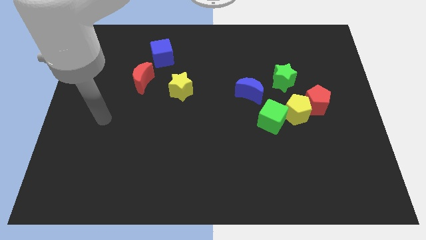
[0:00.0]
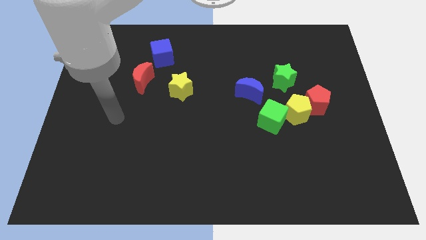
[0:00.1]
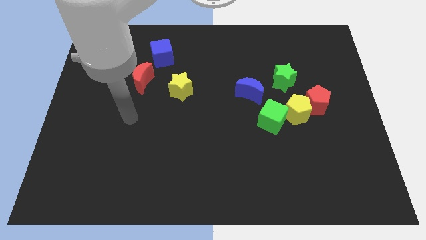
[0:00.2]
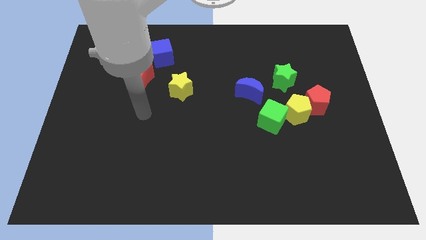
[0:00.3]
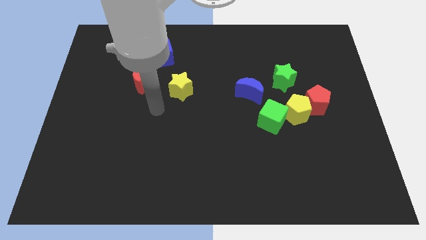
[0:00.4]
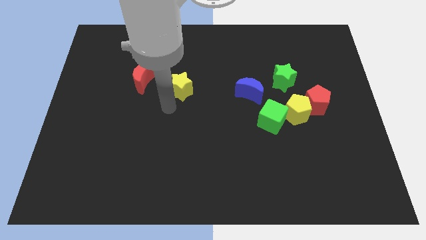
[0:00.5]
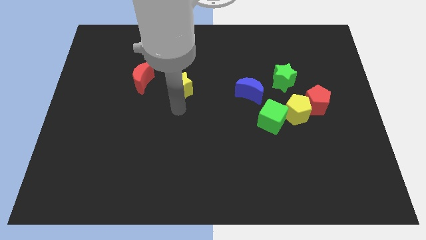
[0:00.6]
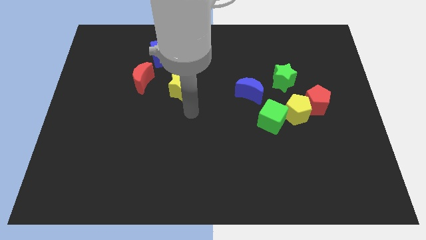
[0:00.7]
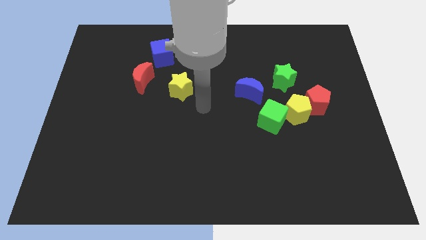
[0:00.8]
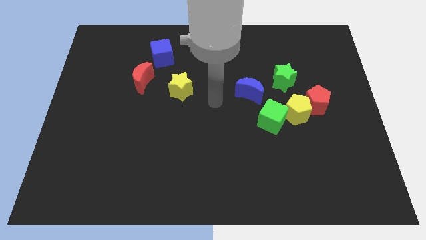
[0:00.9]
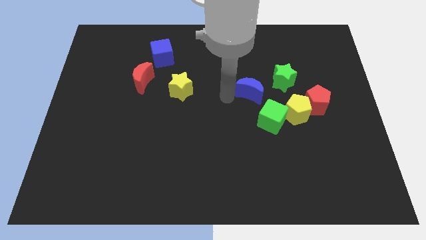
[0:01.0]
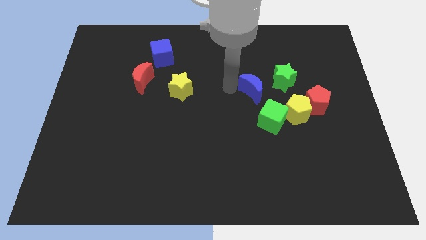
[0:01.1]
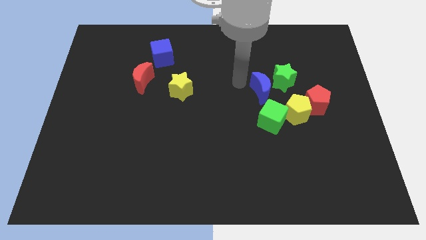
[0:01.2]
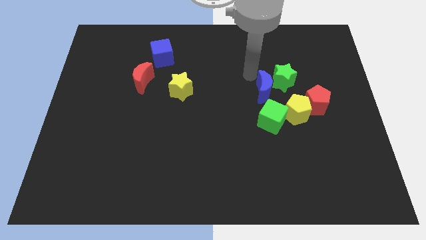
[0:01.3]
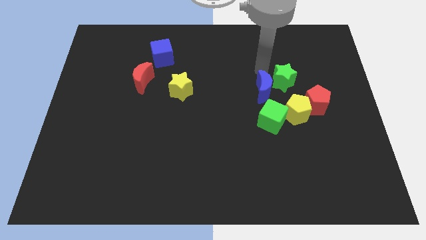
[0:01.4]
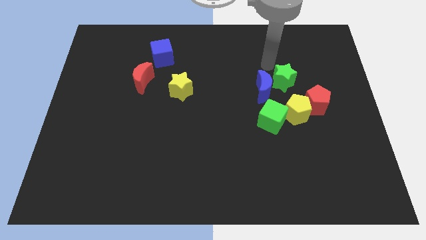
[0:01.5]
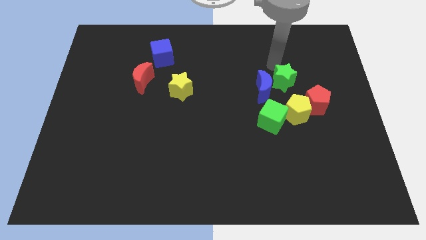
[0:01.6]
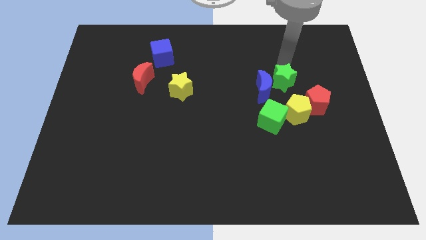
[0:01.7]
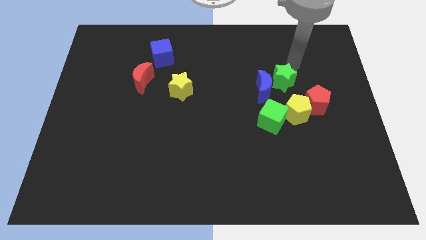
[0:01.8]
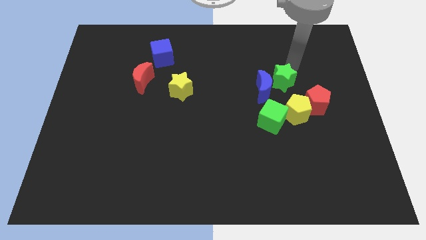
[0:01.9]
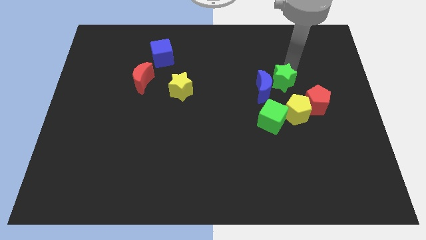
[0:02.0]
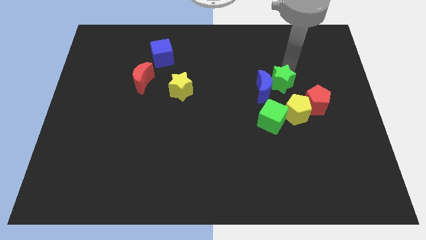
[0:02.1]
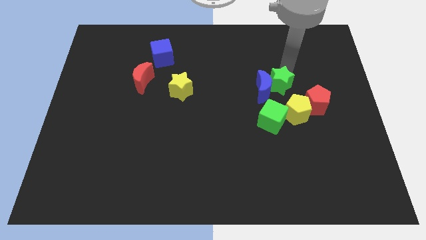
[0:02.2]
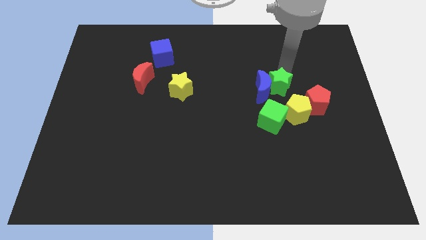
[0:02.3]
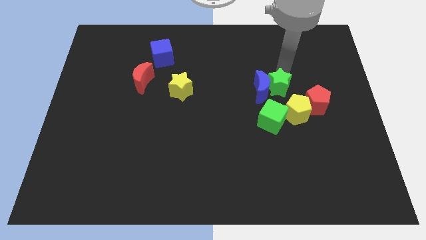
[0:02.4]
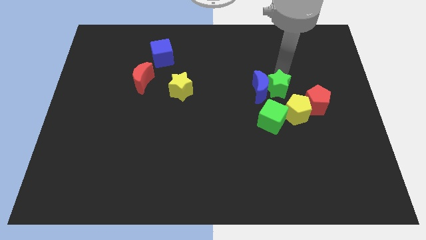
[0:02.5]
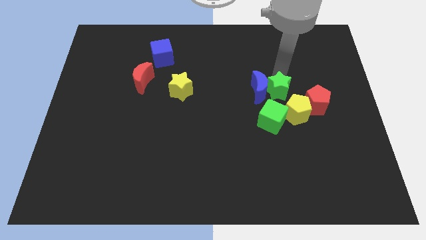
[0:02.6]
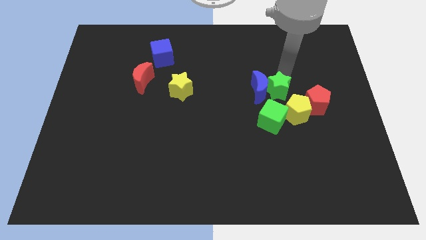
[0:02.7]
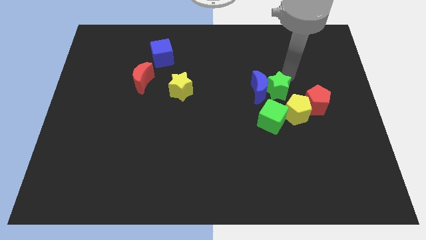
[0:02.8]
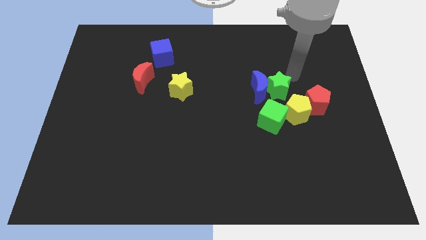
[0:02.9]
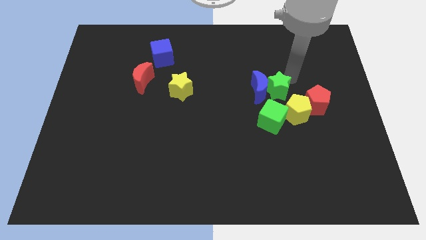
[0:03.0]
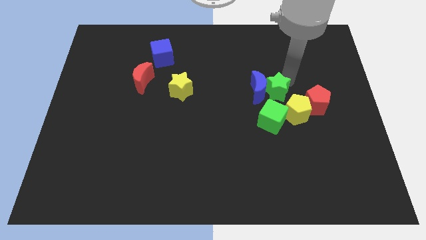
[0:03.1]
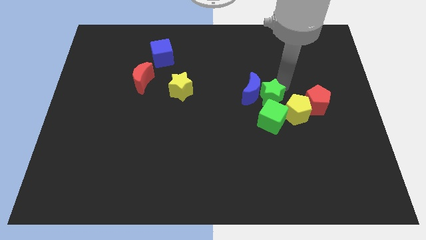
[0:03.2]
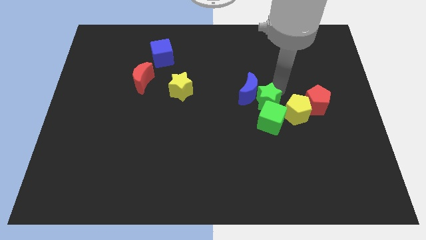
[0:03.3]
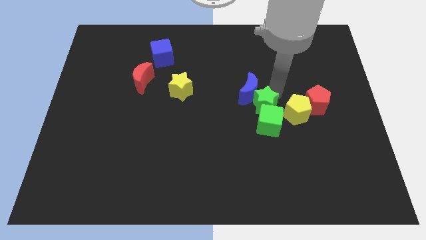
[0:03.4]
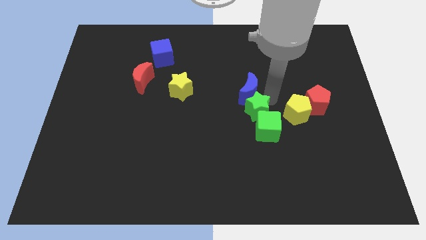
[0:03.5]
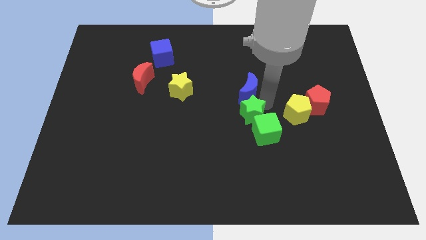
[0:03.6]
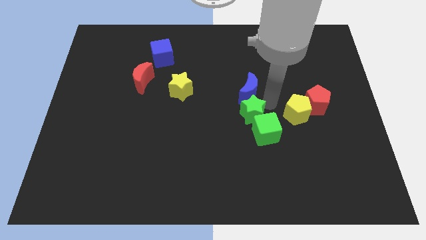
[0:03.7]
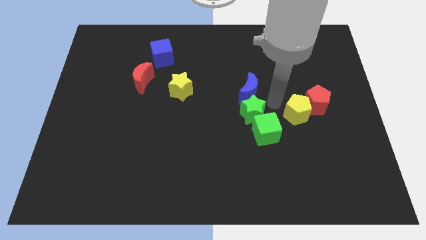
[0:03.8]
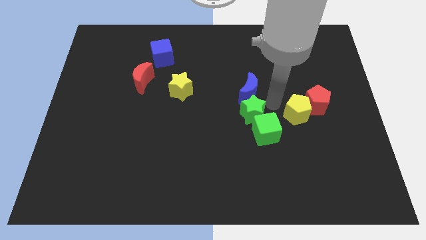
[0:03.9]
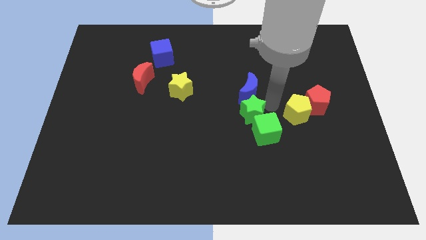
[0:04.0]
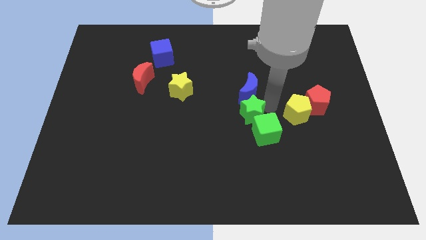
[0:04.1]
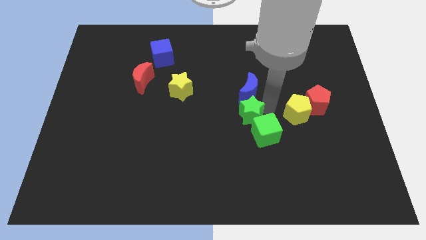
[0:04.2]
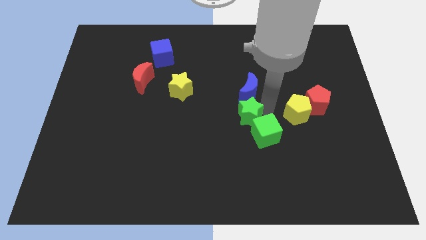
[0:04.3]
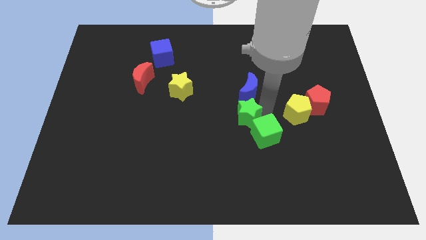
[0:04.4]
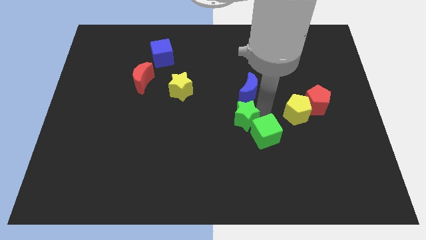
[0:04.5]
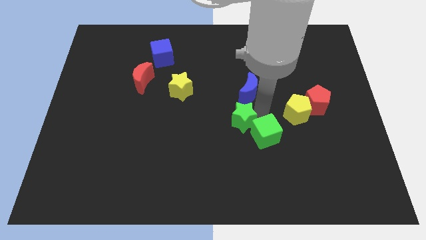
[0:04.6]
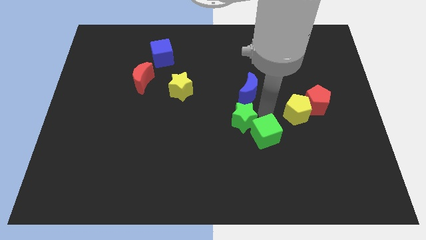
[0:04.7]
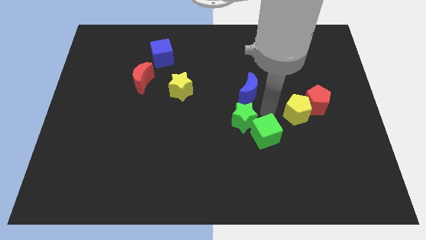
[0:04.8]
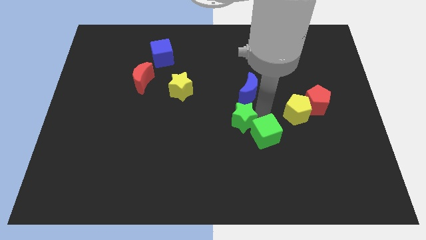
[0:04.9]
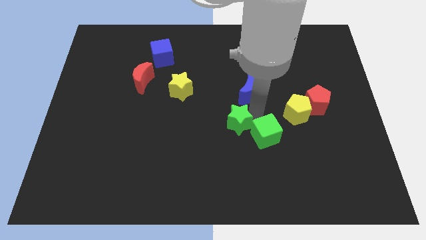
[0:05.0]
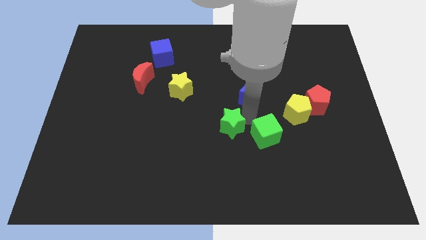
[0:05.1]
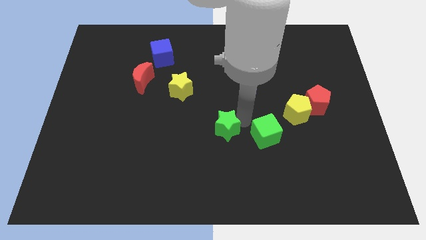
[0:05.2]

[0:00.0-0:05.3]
move the green star downwards and then to the left

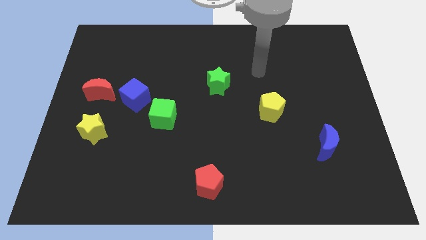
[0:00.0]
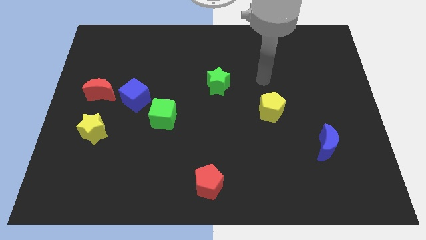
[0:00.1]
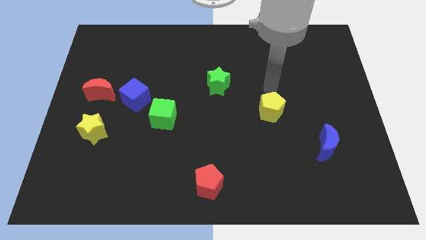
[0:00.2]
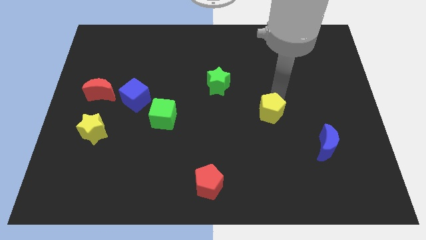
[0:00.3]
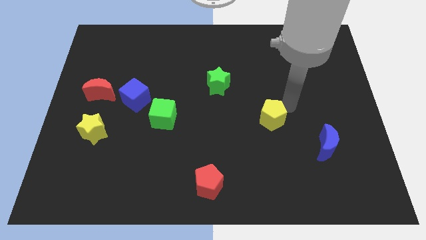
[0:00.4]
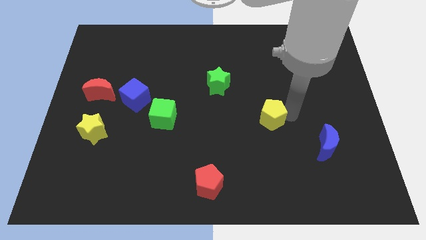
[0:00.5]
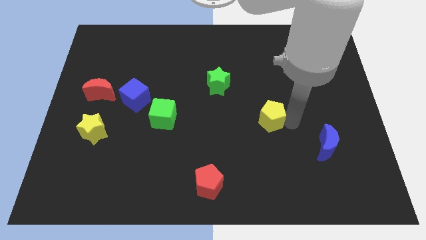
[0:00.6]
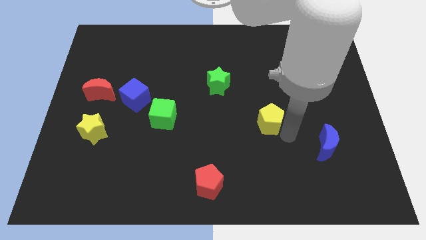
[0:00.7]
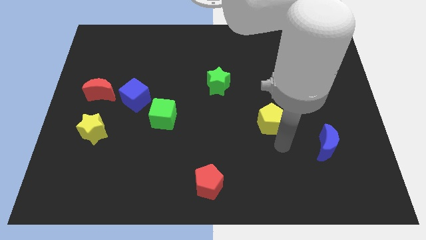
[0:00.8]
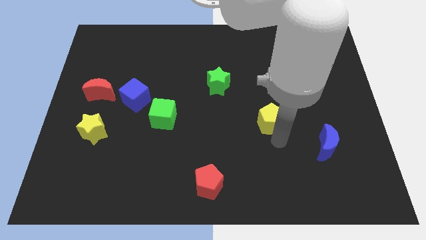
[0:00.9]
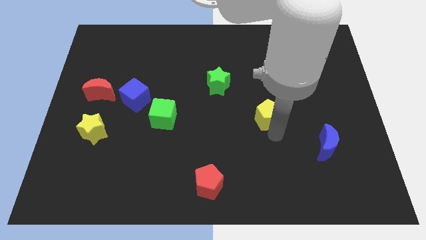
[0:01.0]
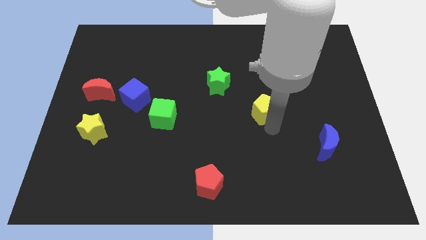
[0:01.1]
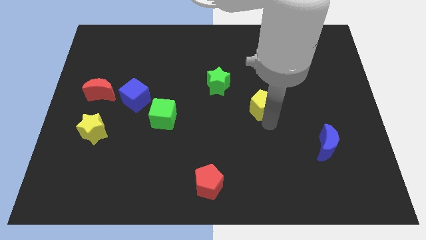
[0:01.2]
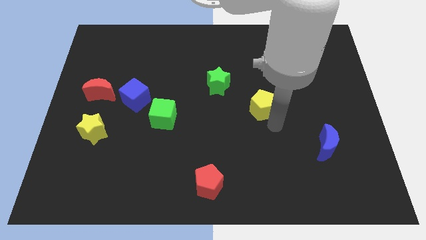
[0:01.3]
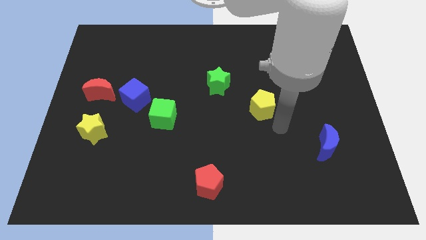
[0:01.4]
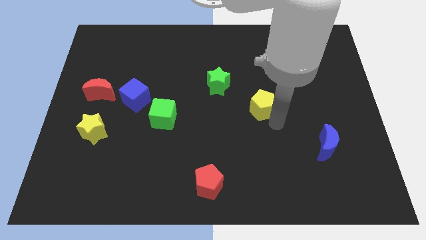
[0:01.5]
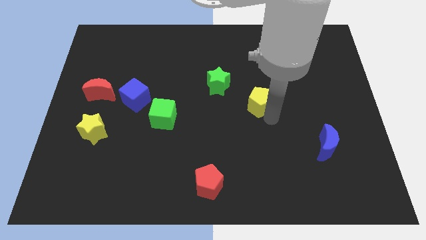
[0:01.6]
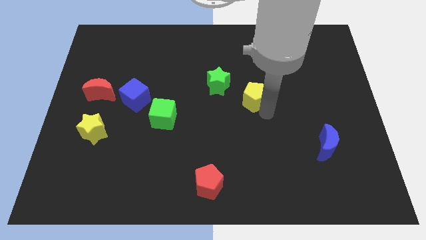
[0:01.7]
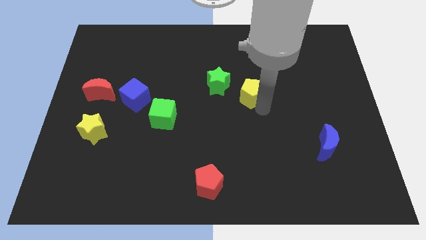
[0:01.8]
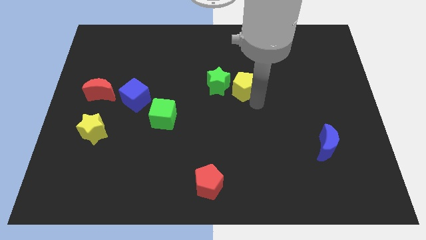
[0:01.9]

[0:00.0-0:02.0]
move the yellow pentagon a little upwards and then left

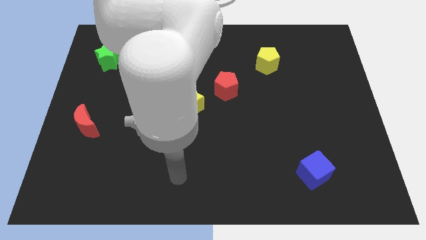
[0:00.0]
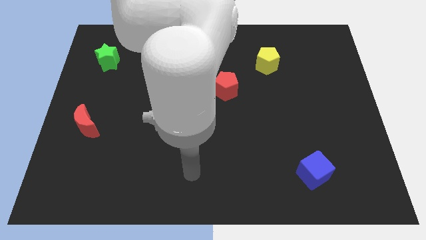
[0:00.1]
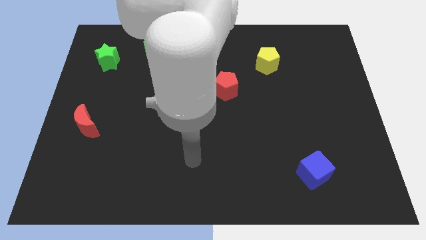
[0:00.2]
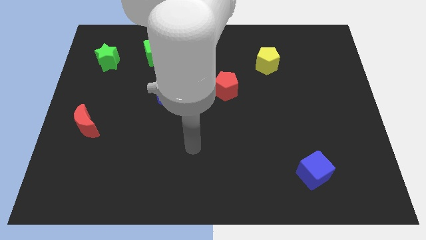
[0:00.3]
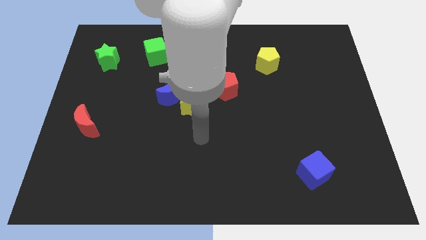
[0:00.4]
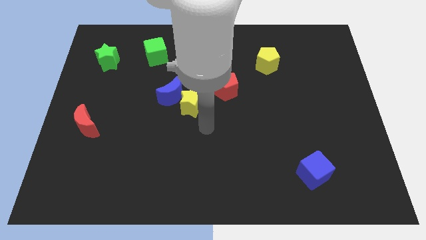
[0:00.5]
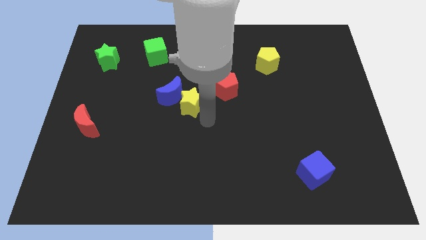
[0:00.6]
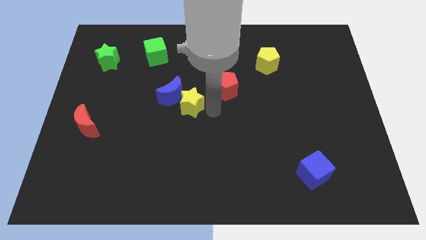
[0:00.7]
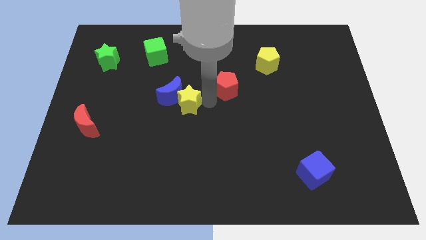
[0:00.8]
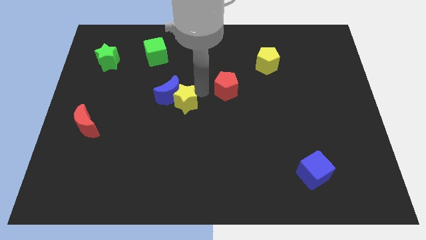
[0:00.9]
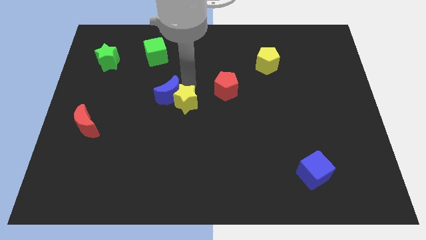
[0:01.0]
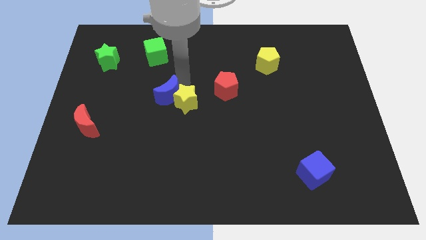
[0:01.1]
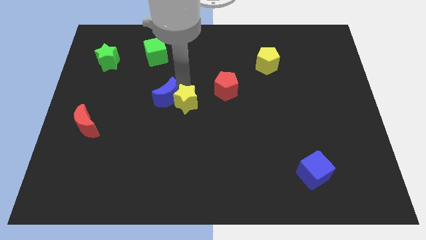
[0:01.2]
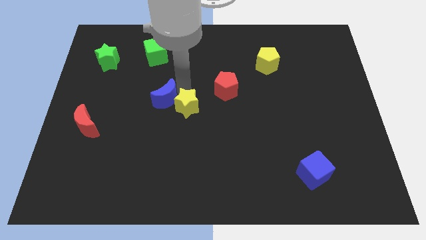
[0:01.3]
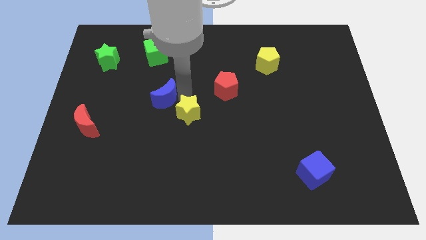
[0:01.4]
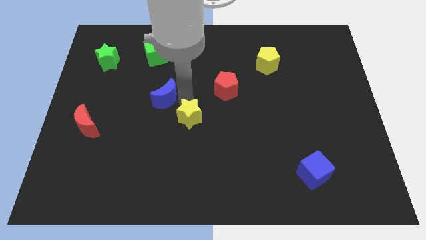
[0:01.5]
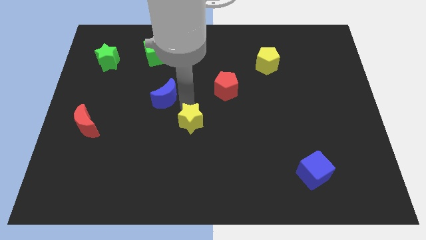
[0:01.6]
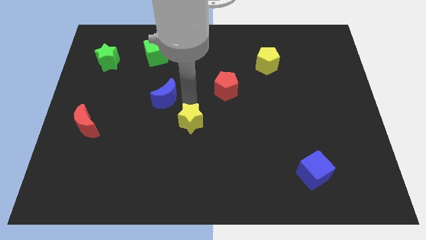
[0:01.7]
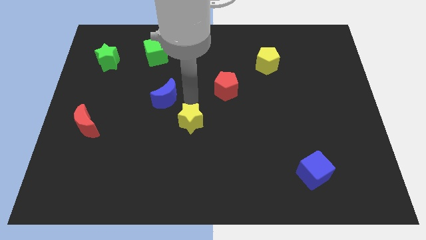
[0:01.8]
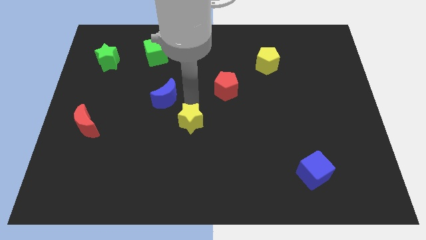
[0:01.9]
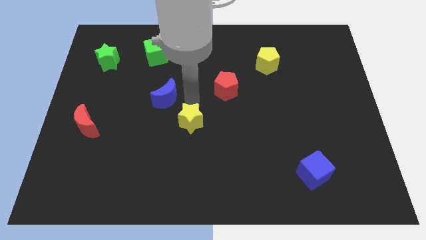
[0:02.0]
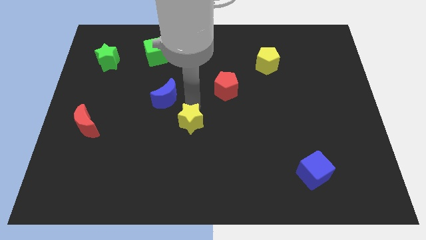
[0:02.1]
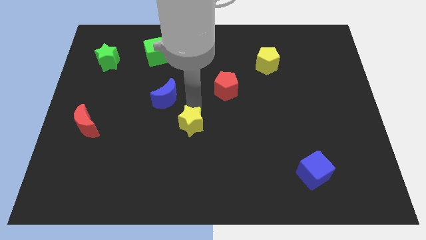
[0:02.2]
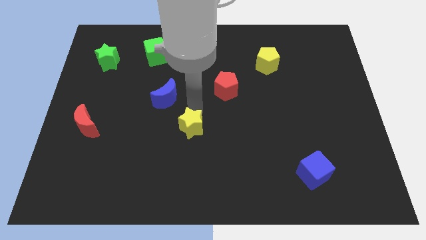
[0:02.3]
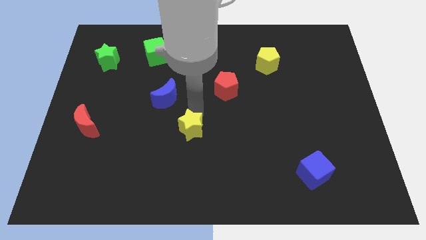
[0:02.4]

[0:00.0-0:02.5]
push the yellow star a bit downwards
